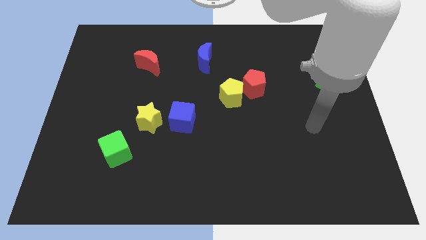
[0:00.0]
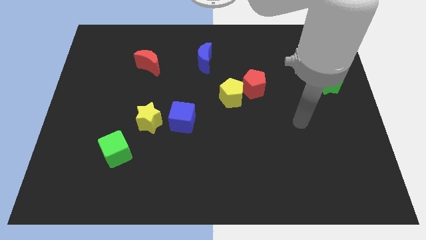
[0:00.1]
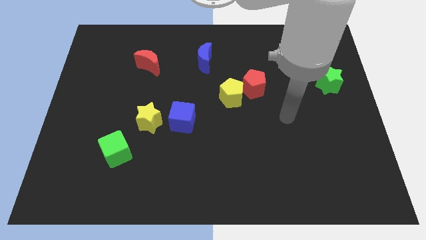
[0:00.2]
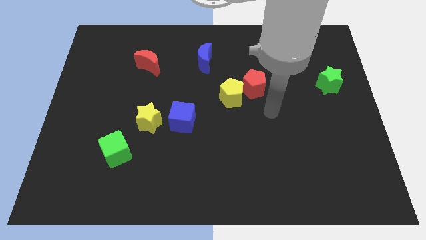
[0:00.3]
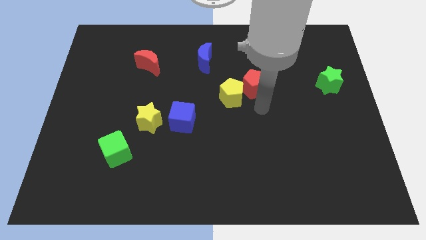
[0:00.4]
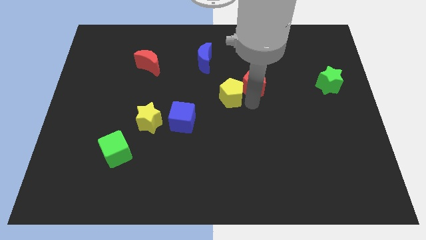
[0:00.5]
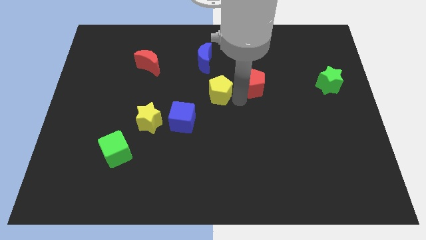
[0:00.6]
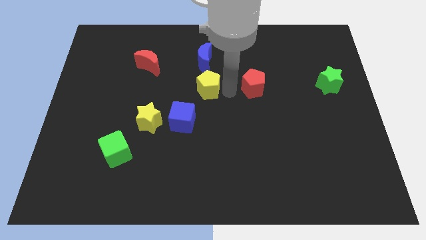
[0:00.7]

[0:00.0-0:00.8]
pull the red pentagon apart from the yellow pentagon

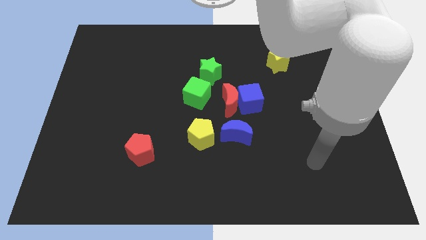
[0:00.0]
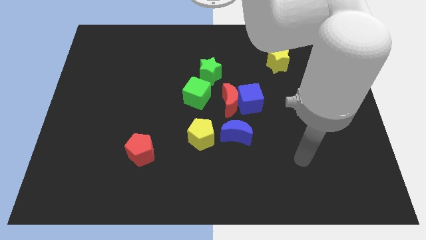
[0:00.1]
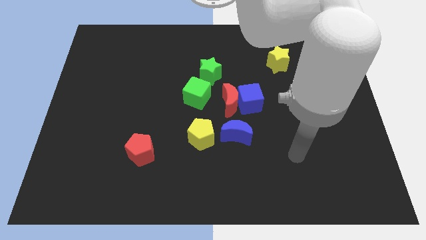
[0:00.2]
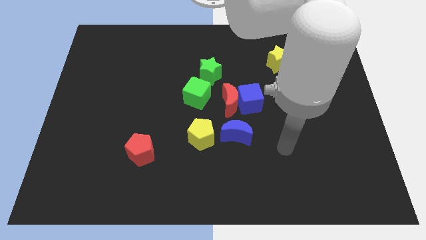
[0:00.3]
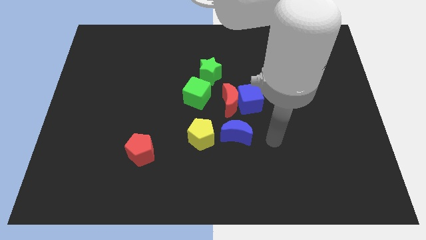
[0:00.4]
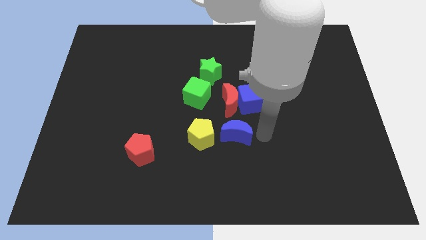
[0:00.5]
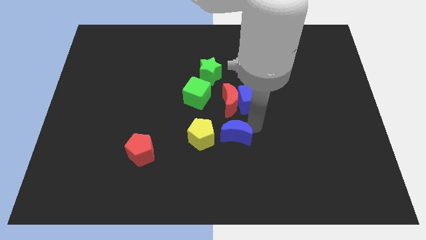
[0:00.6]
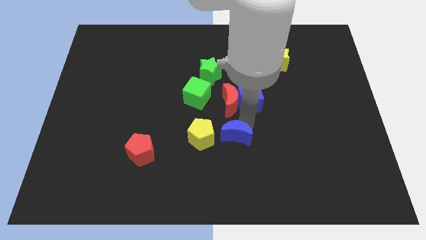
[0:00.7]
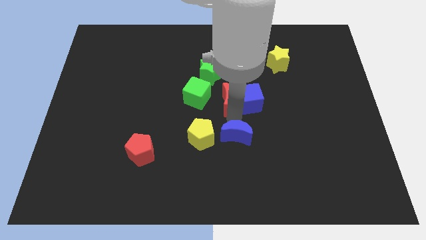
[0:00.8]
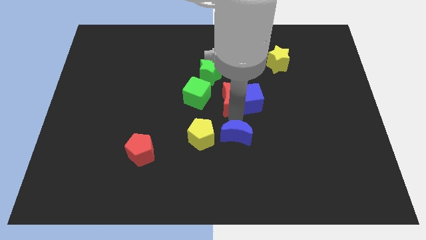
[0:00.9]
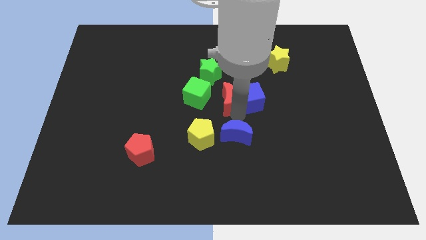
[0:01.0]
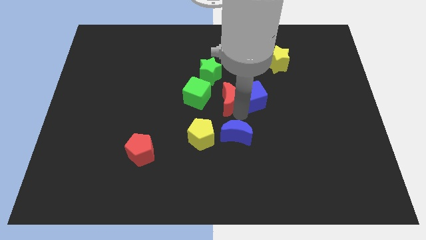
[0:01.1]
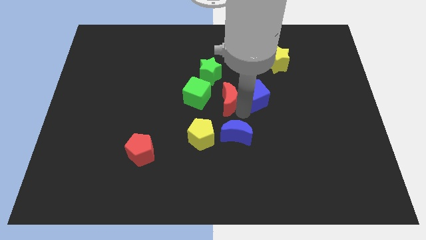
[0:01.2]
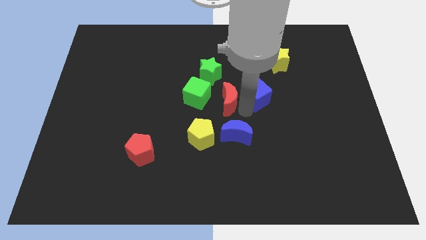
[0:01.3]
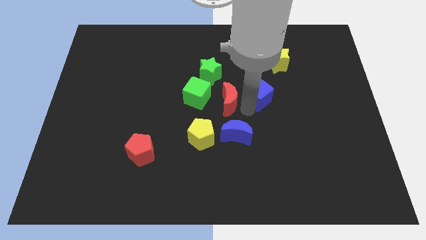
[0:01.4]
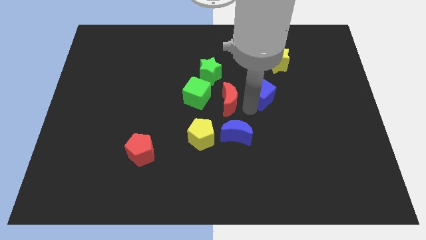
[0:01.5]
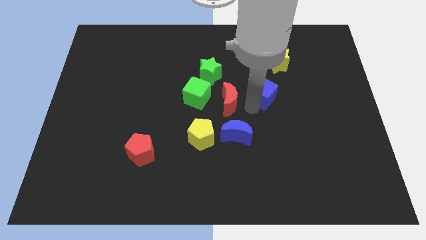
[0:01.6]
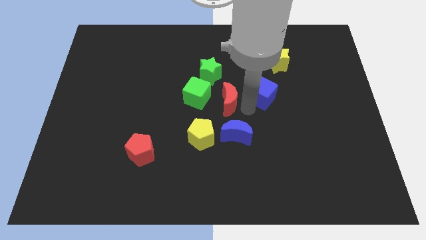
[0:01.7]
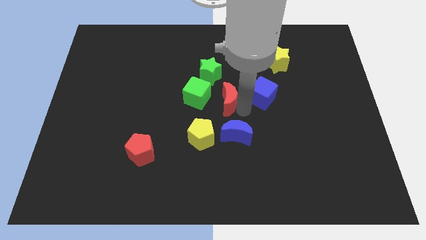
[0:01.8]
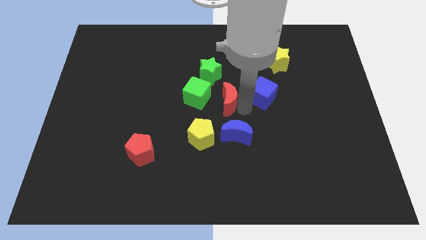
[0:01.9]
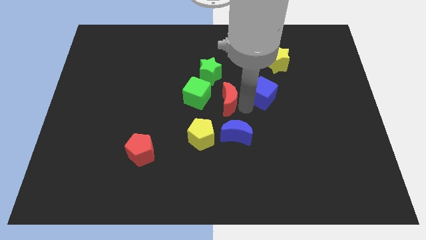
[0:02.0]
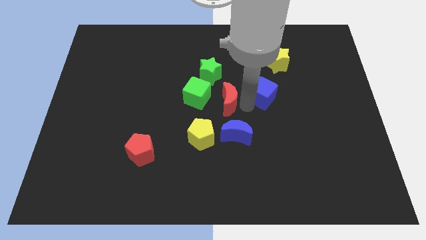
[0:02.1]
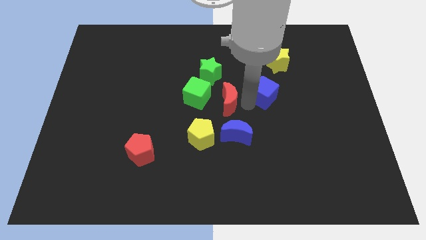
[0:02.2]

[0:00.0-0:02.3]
separate the blue cube from the red moon and blue moon

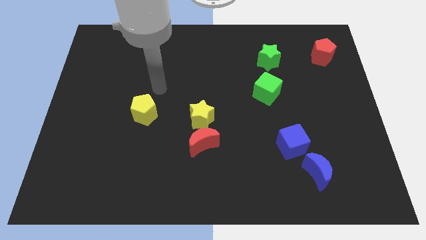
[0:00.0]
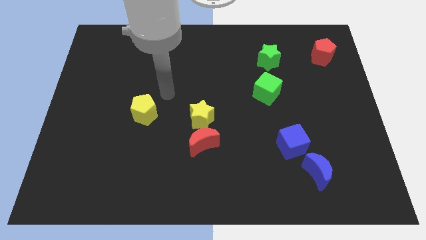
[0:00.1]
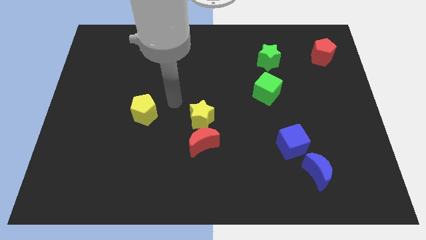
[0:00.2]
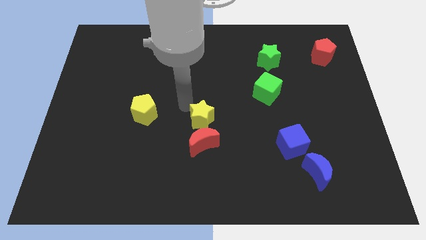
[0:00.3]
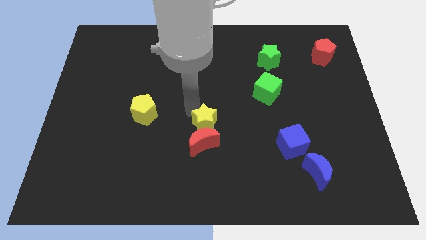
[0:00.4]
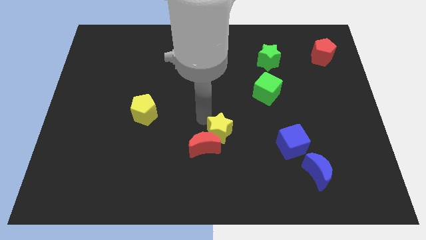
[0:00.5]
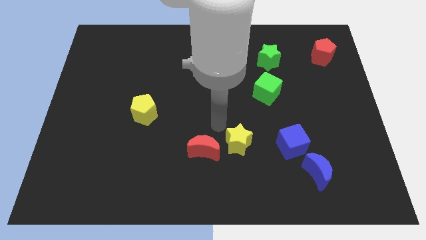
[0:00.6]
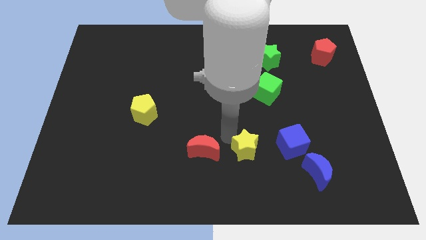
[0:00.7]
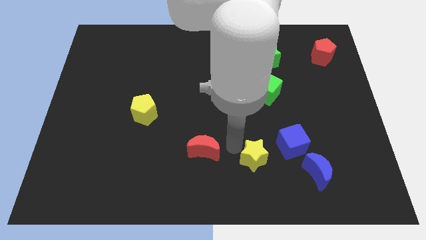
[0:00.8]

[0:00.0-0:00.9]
pull the red moon apart from the yellow star

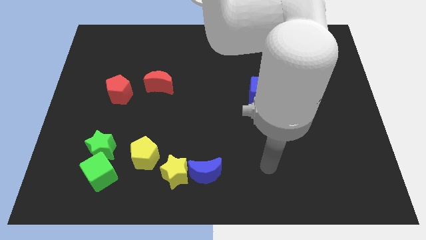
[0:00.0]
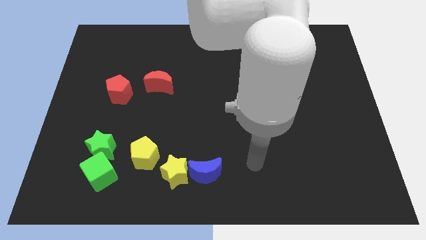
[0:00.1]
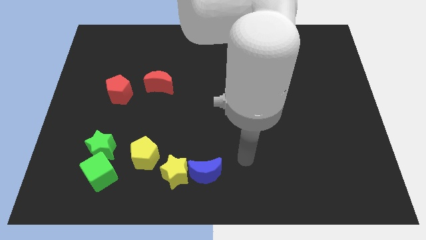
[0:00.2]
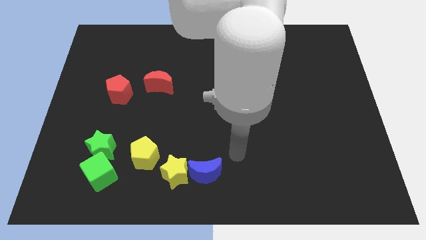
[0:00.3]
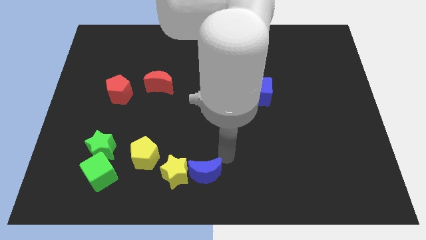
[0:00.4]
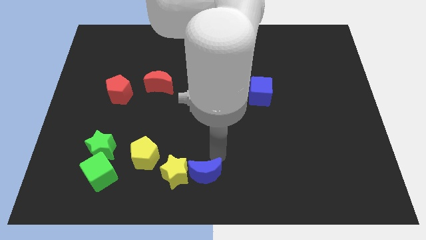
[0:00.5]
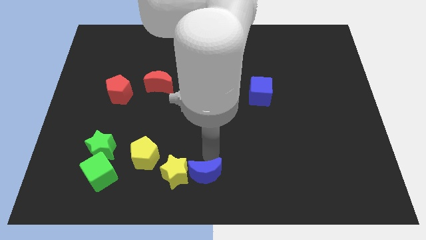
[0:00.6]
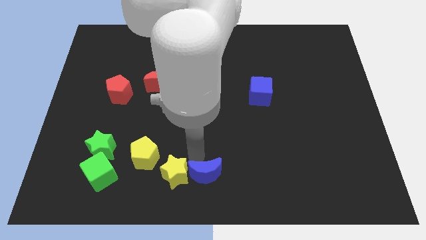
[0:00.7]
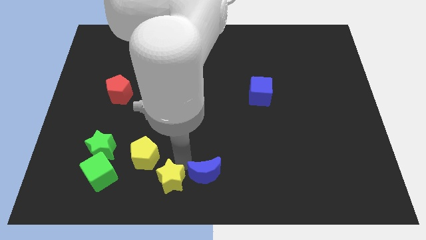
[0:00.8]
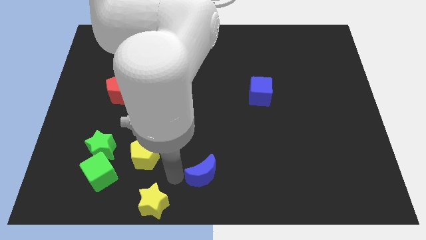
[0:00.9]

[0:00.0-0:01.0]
separate the blue moon from the yellow star

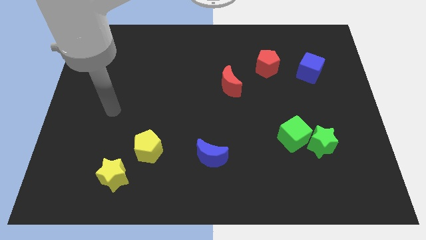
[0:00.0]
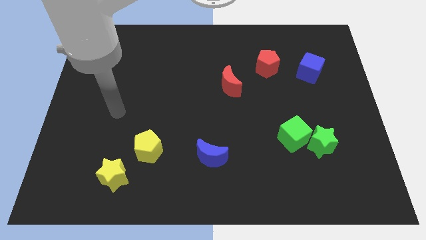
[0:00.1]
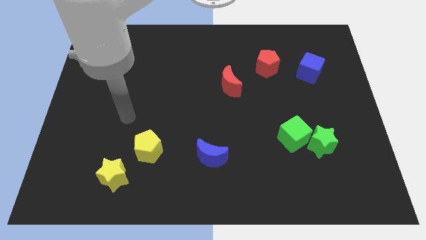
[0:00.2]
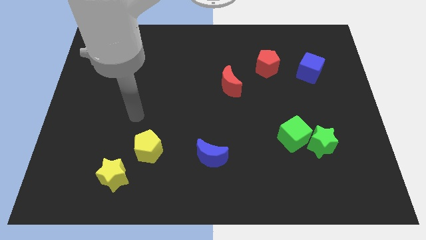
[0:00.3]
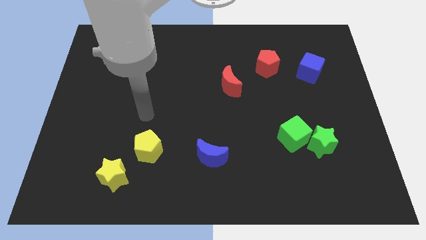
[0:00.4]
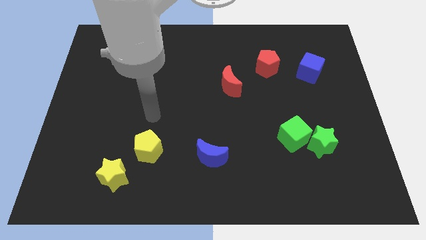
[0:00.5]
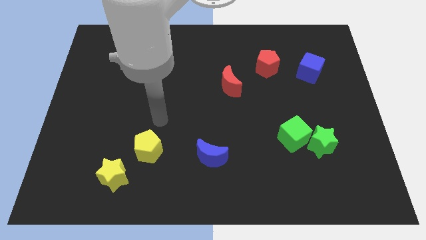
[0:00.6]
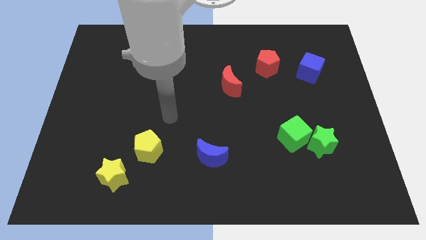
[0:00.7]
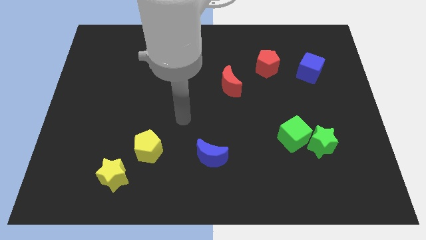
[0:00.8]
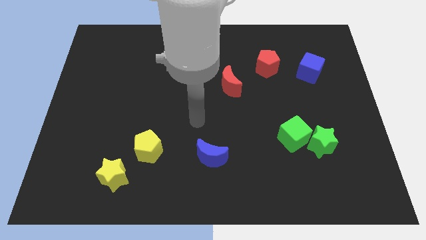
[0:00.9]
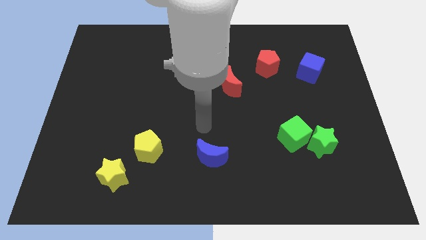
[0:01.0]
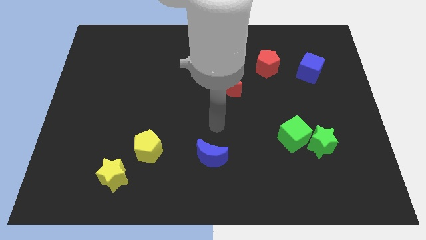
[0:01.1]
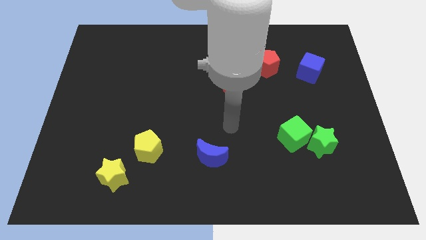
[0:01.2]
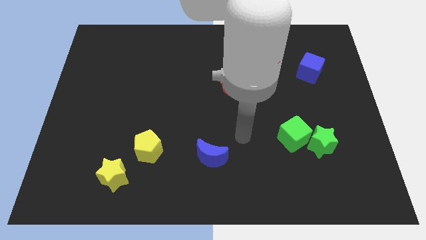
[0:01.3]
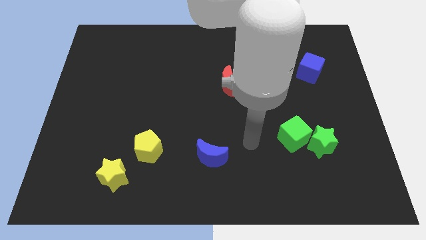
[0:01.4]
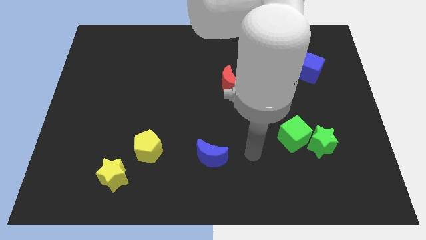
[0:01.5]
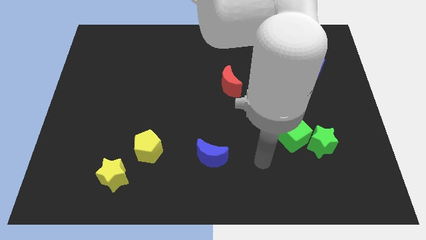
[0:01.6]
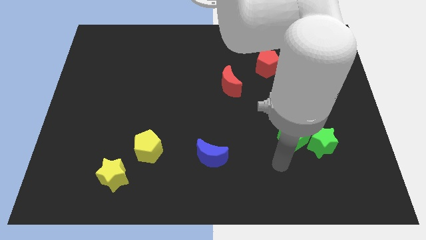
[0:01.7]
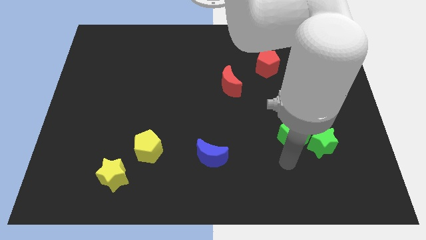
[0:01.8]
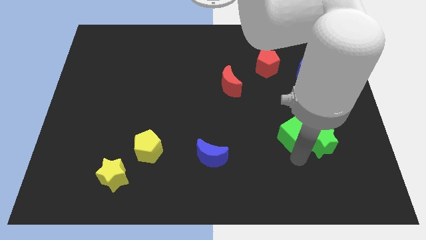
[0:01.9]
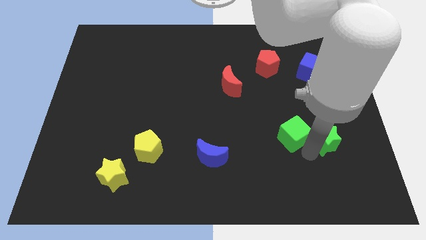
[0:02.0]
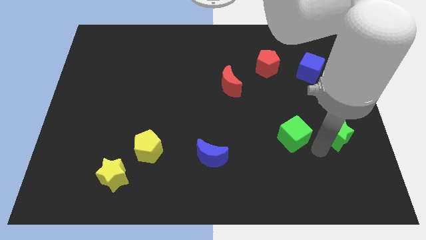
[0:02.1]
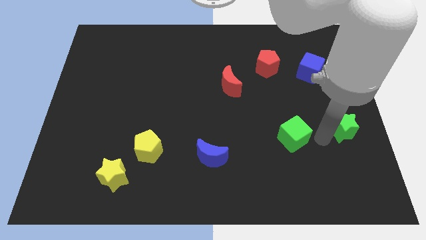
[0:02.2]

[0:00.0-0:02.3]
separate the green cube from the green star

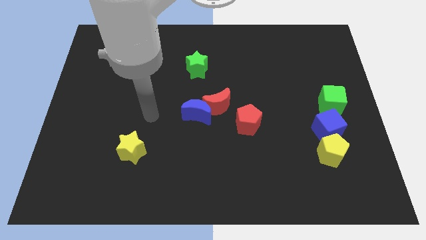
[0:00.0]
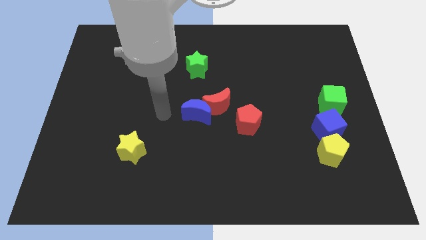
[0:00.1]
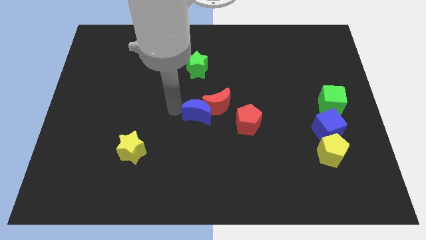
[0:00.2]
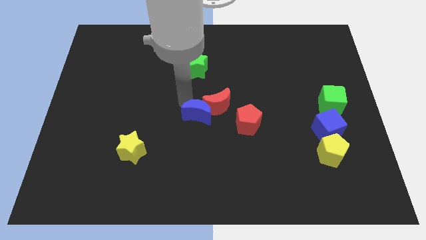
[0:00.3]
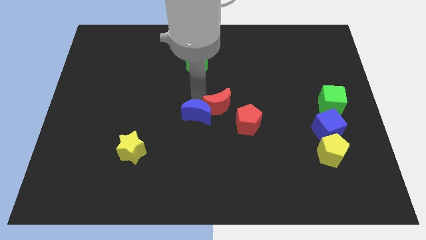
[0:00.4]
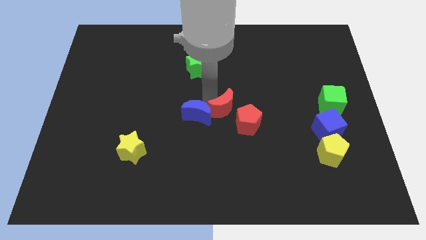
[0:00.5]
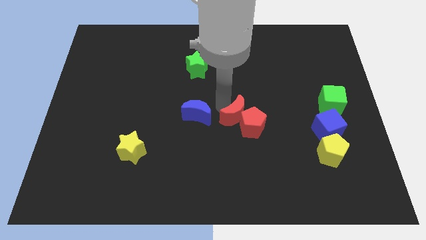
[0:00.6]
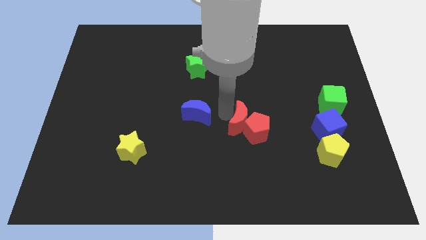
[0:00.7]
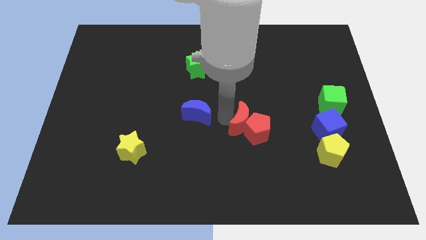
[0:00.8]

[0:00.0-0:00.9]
move the blue moon away from the red moon

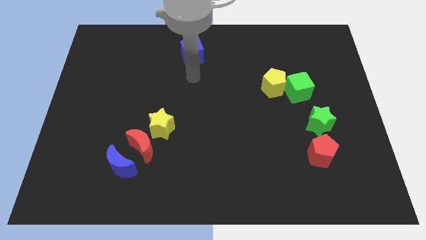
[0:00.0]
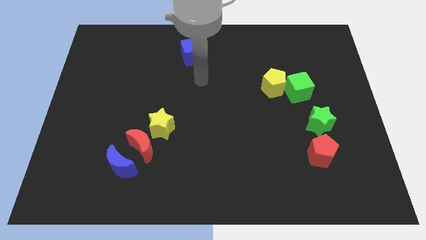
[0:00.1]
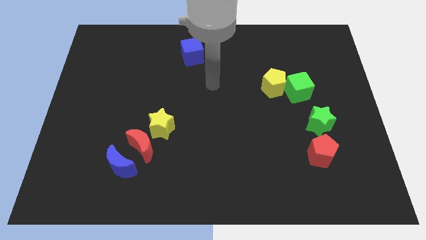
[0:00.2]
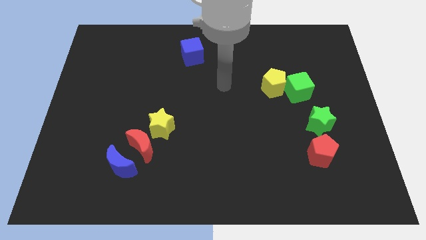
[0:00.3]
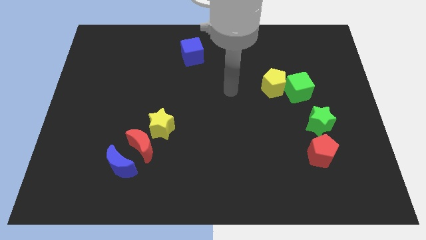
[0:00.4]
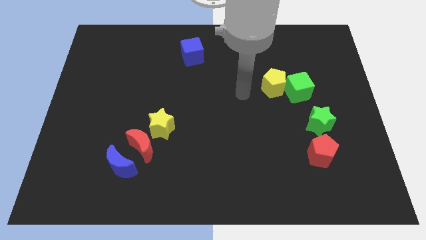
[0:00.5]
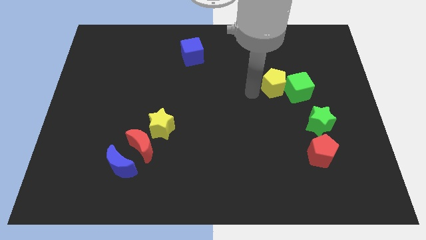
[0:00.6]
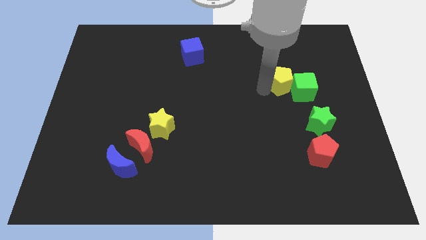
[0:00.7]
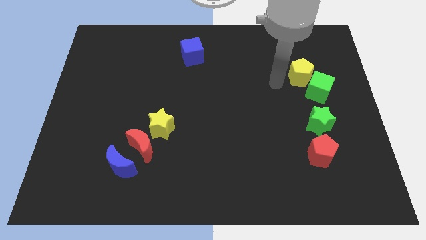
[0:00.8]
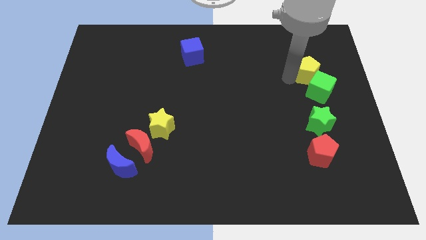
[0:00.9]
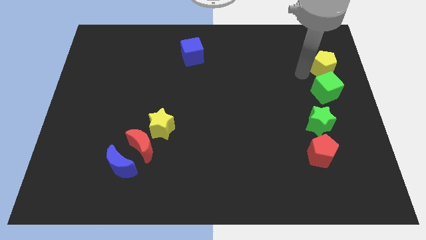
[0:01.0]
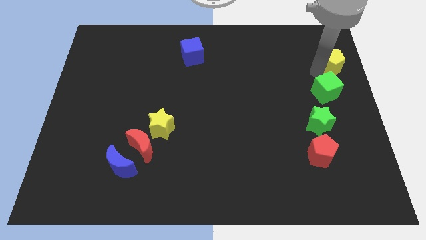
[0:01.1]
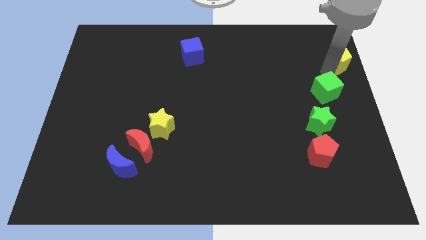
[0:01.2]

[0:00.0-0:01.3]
move the green cube away from the yellow pentagon
